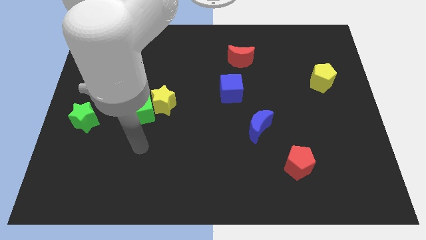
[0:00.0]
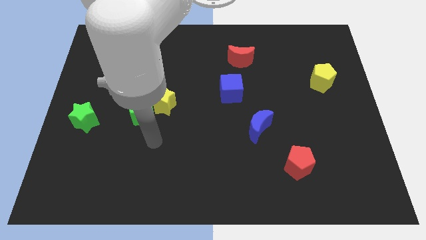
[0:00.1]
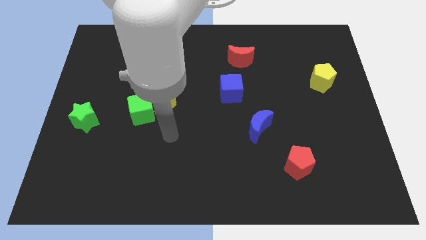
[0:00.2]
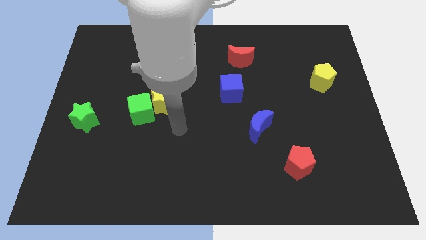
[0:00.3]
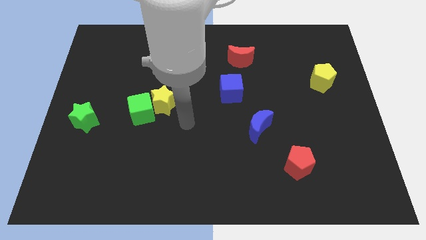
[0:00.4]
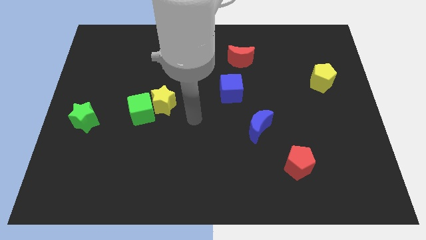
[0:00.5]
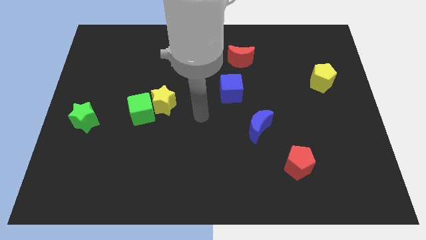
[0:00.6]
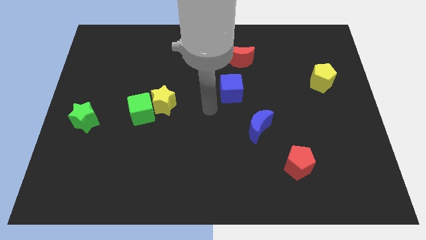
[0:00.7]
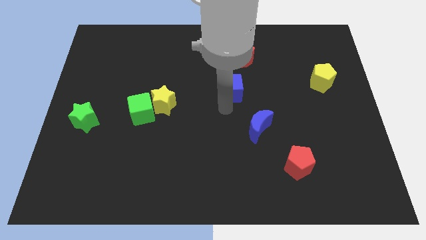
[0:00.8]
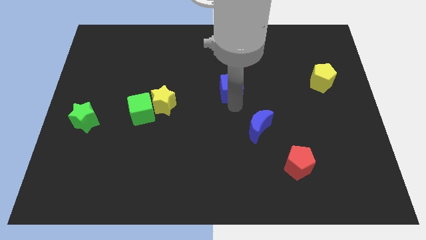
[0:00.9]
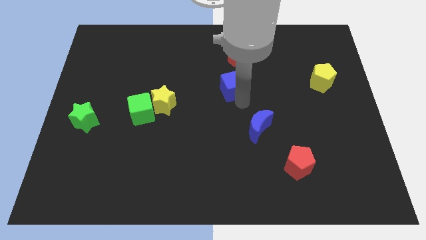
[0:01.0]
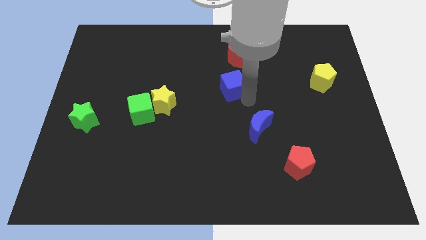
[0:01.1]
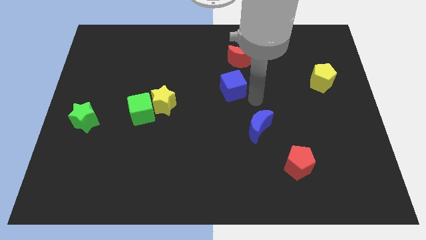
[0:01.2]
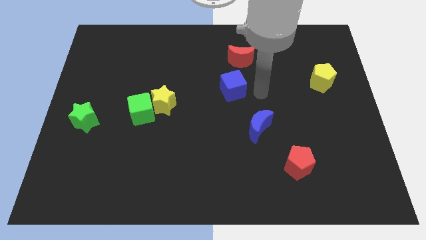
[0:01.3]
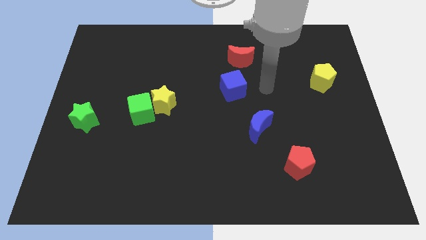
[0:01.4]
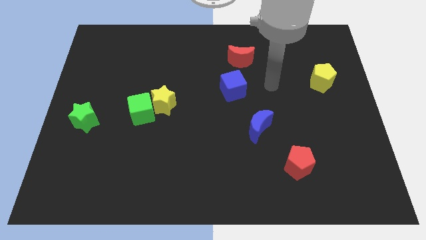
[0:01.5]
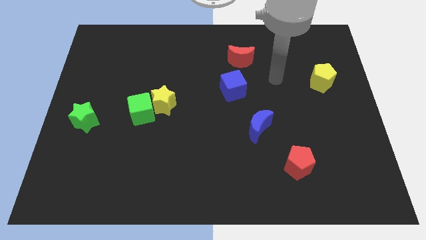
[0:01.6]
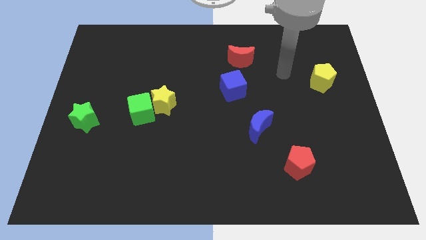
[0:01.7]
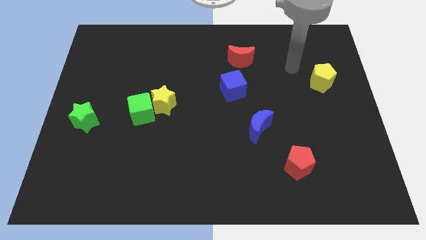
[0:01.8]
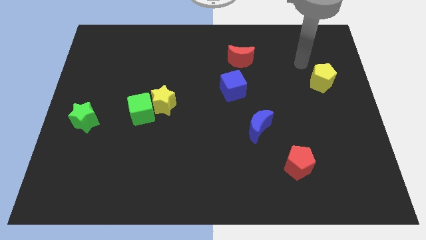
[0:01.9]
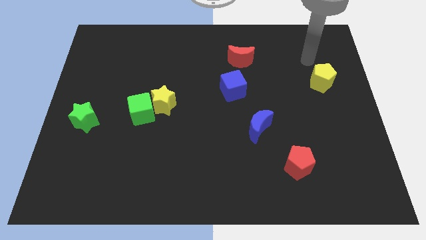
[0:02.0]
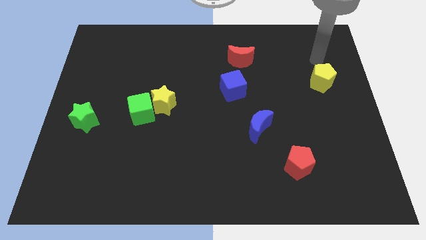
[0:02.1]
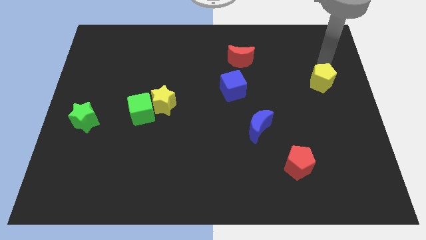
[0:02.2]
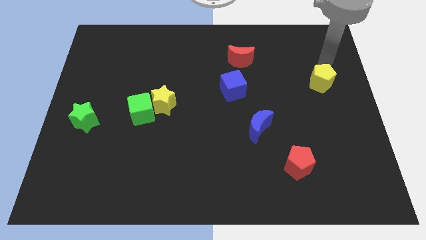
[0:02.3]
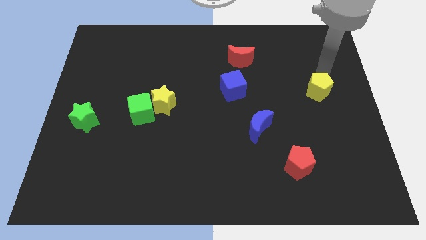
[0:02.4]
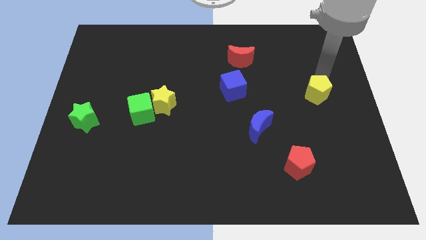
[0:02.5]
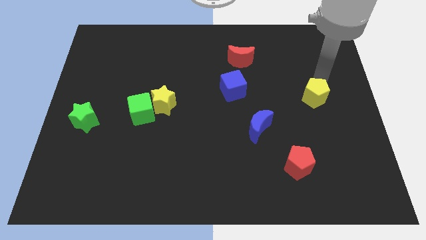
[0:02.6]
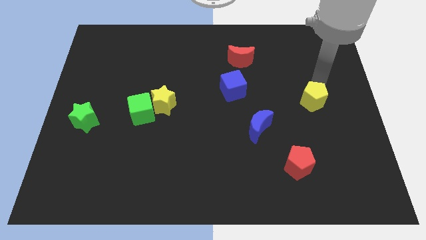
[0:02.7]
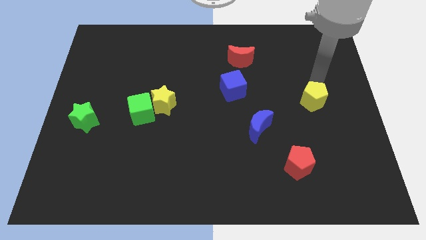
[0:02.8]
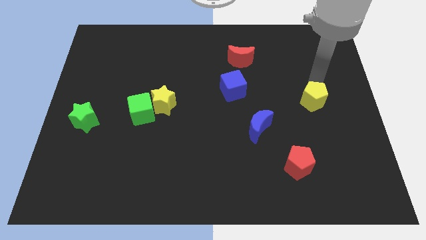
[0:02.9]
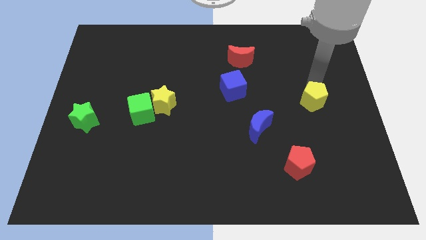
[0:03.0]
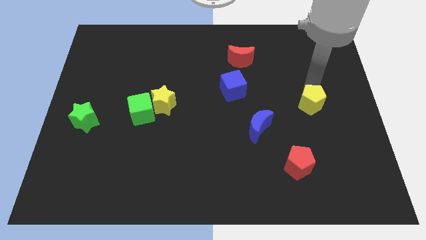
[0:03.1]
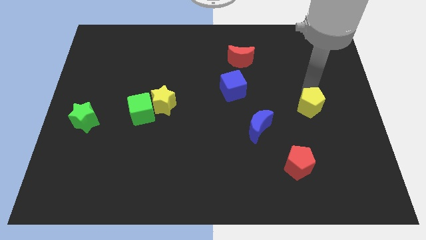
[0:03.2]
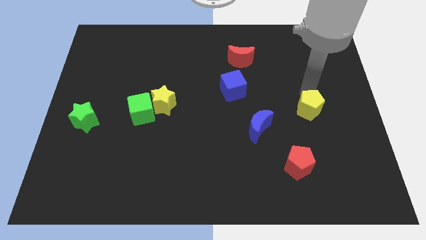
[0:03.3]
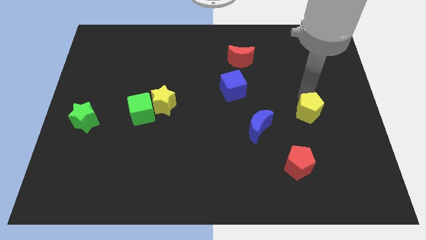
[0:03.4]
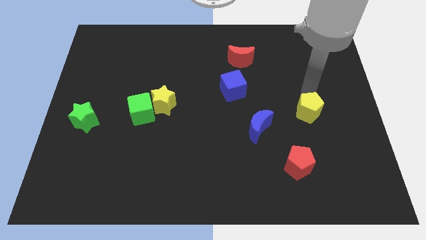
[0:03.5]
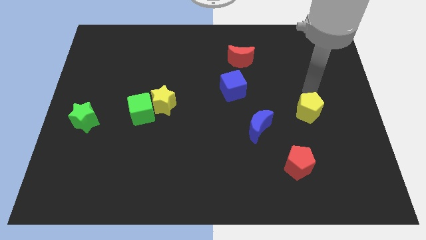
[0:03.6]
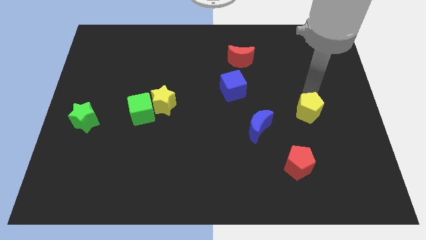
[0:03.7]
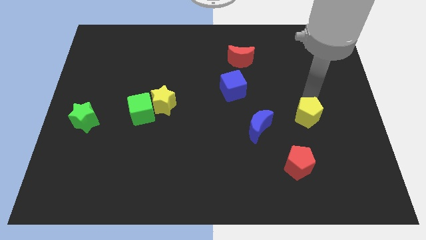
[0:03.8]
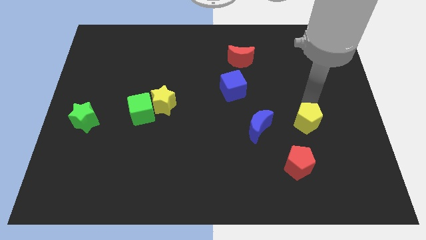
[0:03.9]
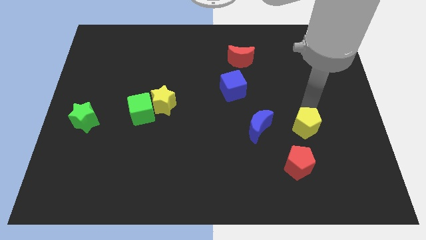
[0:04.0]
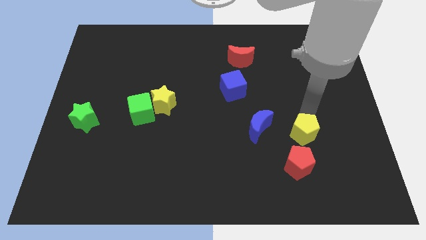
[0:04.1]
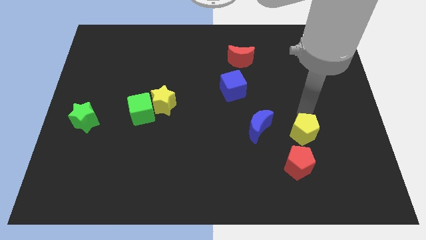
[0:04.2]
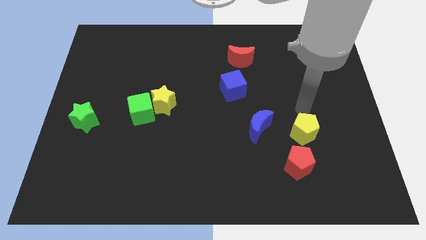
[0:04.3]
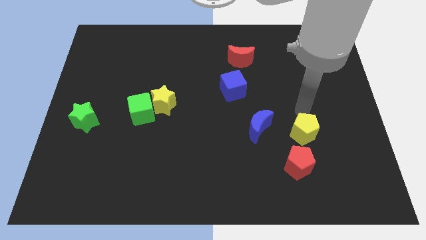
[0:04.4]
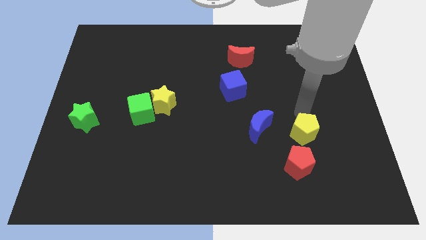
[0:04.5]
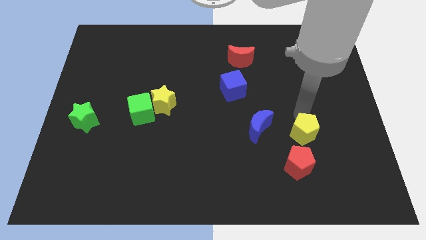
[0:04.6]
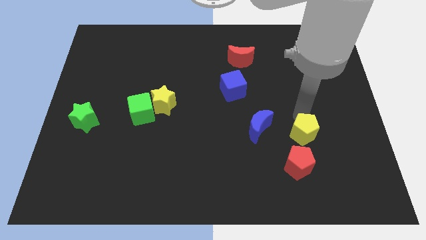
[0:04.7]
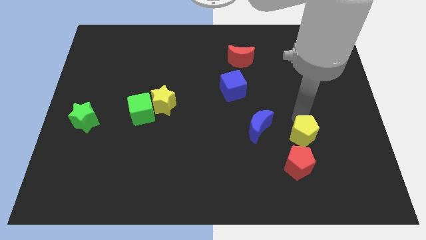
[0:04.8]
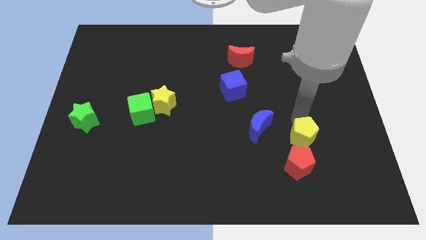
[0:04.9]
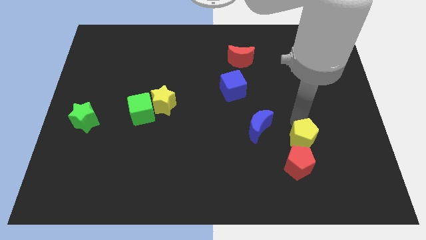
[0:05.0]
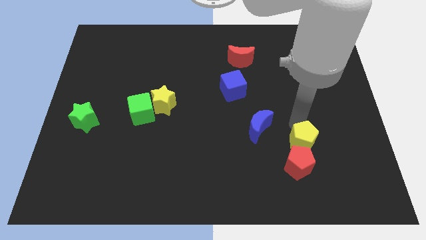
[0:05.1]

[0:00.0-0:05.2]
slide the yellow pentagon next to the red pentagon

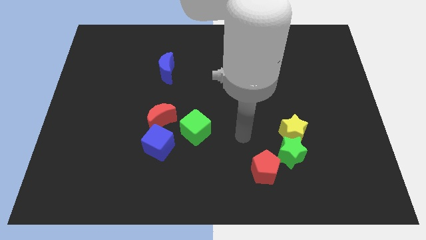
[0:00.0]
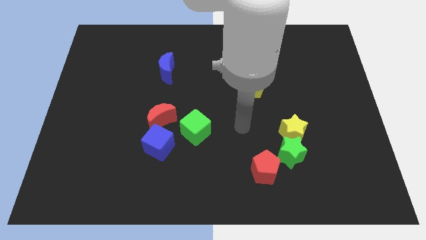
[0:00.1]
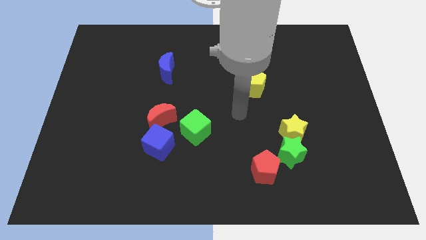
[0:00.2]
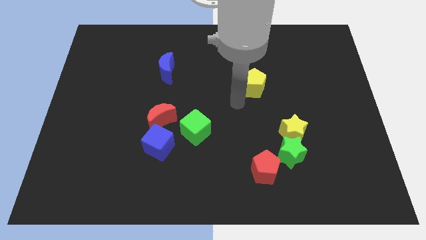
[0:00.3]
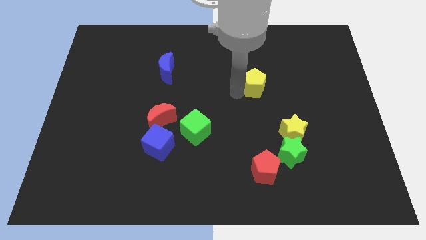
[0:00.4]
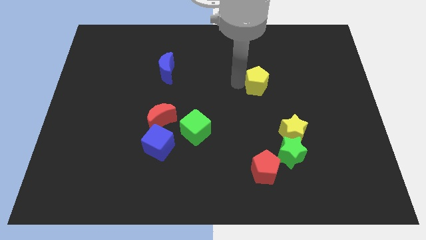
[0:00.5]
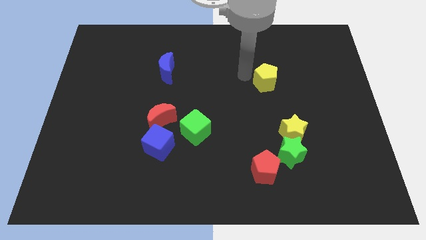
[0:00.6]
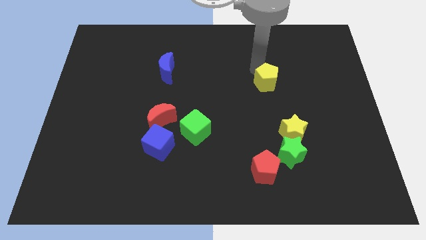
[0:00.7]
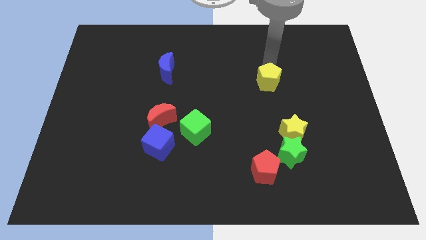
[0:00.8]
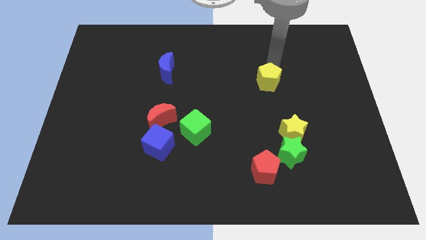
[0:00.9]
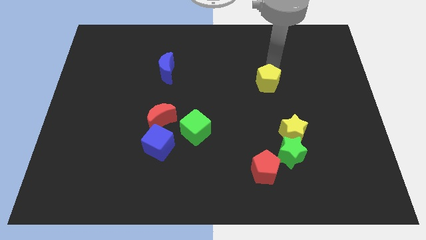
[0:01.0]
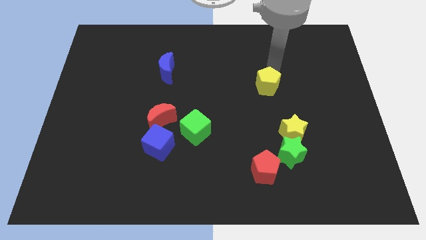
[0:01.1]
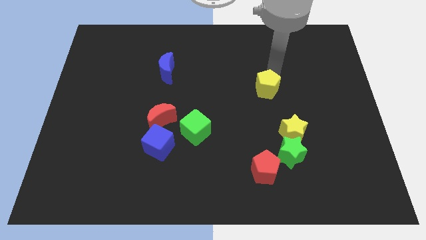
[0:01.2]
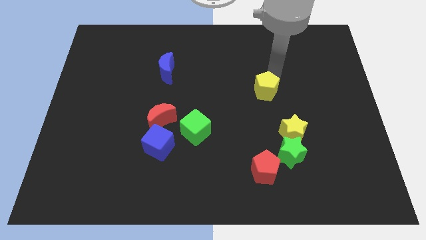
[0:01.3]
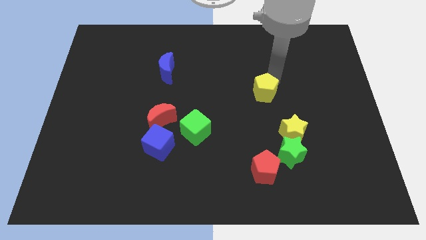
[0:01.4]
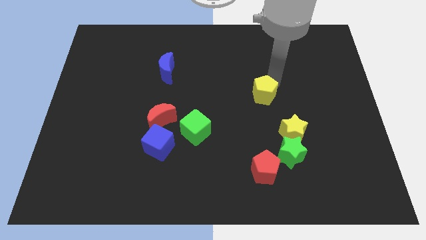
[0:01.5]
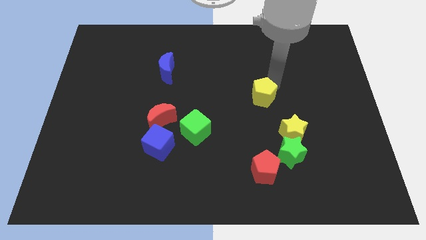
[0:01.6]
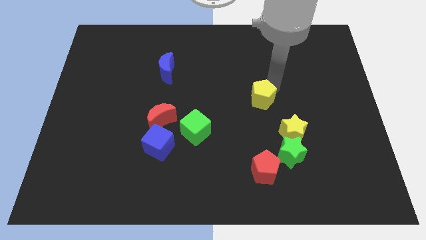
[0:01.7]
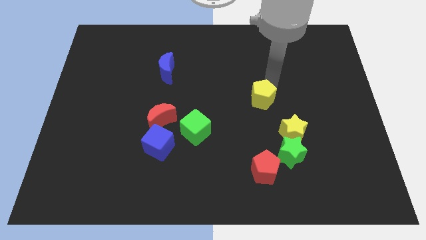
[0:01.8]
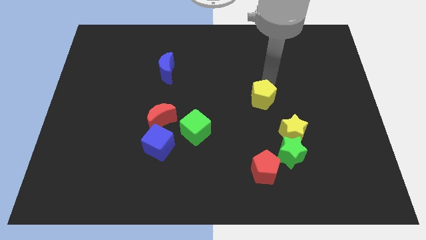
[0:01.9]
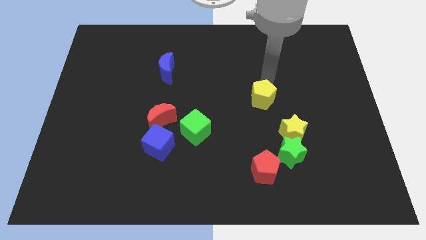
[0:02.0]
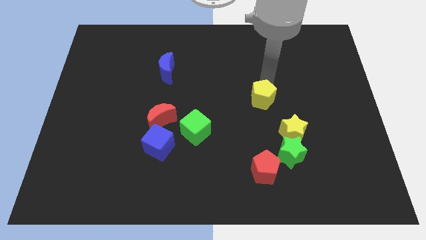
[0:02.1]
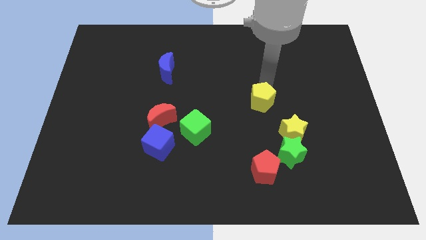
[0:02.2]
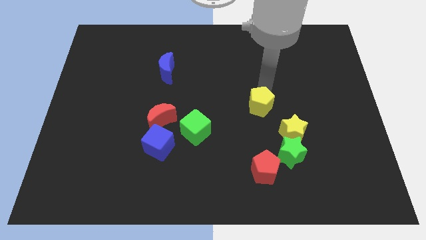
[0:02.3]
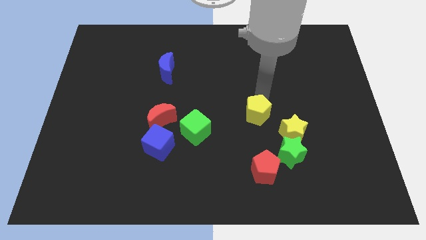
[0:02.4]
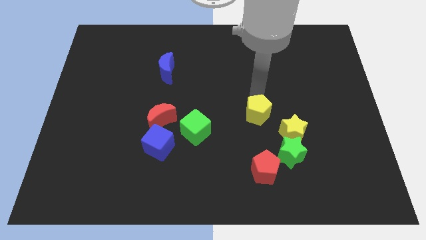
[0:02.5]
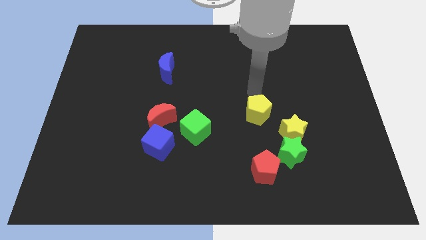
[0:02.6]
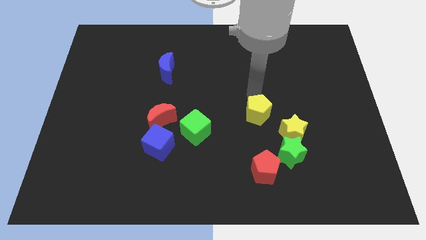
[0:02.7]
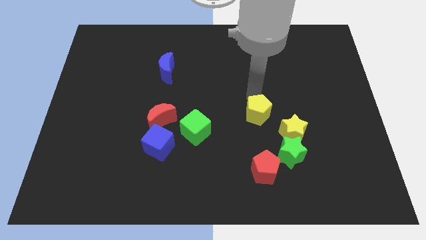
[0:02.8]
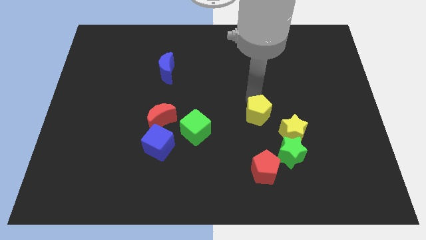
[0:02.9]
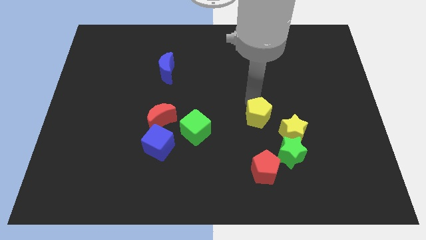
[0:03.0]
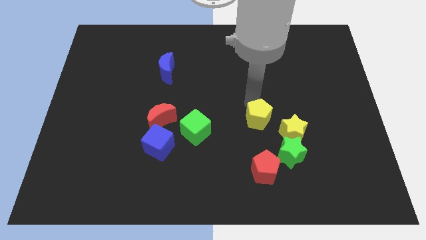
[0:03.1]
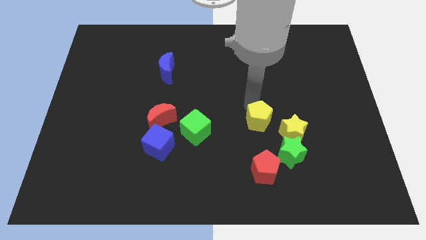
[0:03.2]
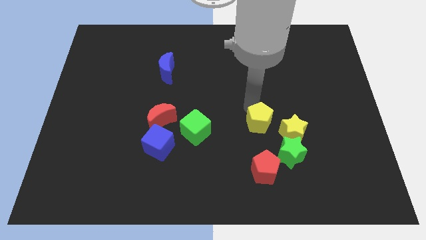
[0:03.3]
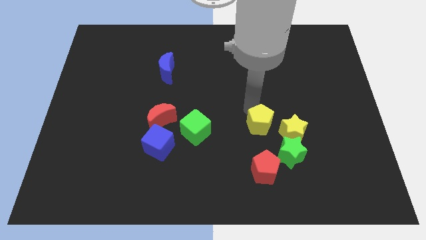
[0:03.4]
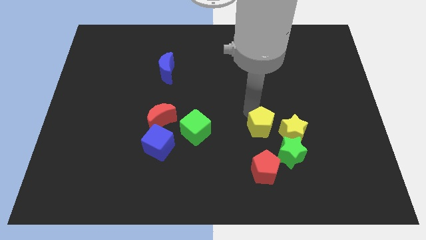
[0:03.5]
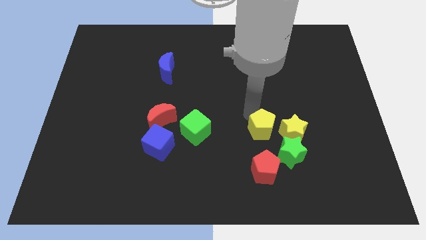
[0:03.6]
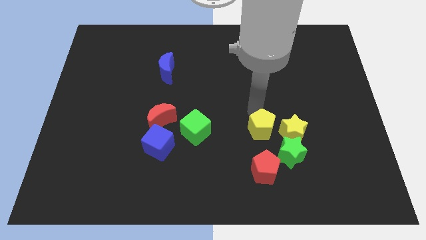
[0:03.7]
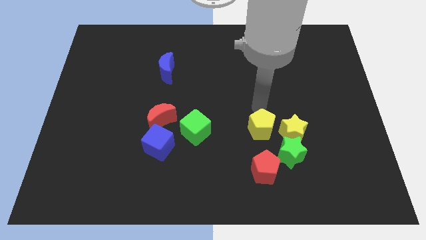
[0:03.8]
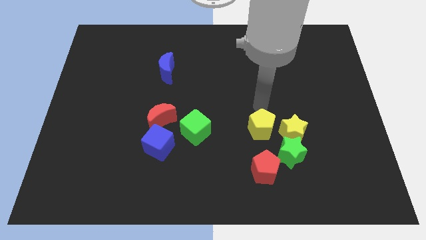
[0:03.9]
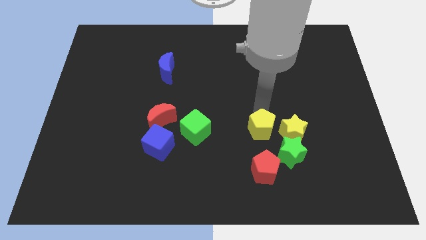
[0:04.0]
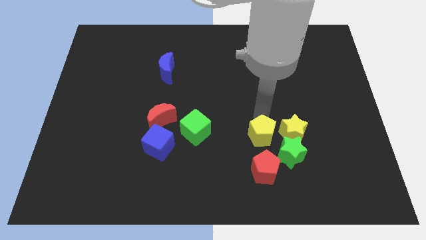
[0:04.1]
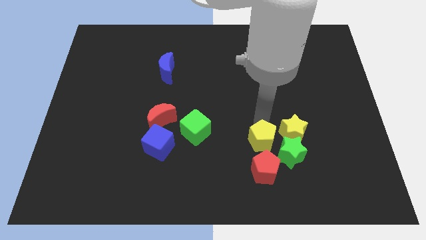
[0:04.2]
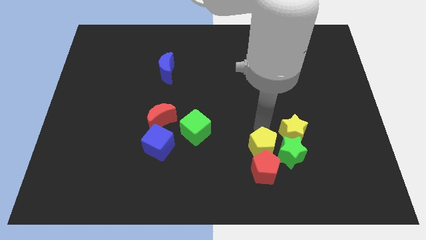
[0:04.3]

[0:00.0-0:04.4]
put the yellow pentagon to the red pentagon
